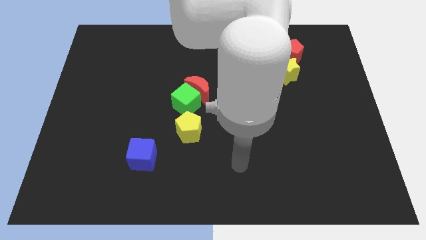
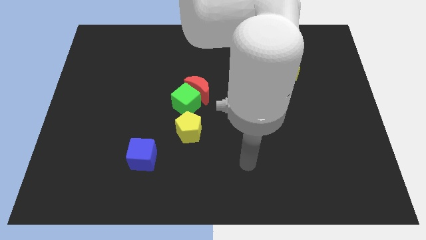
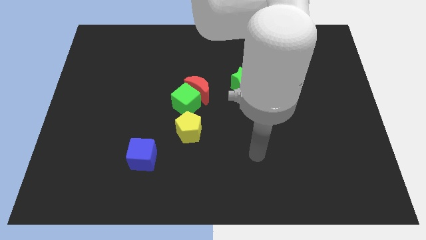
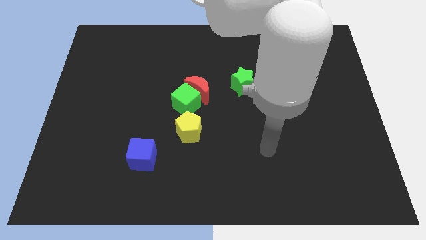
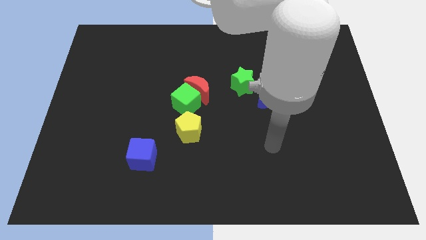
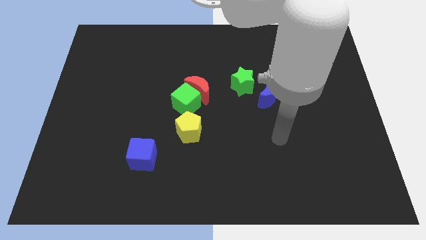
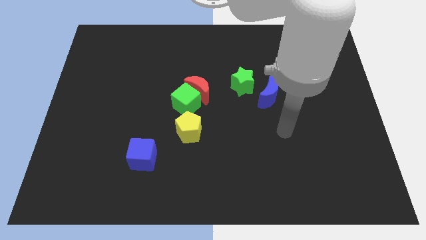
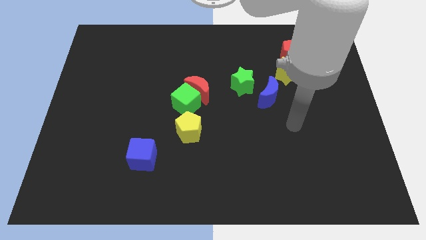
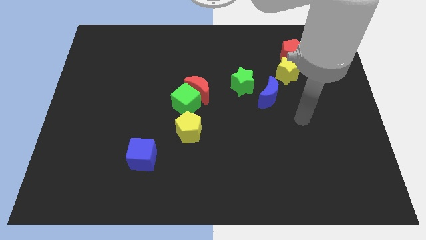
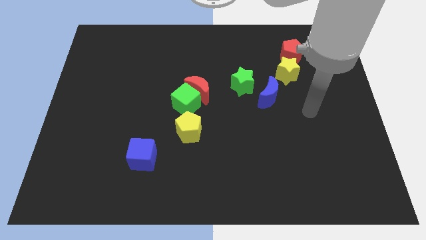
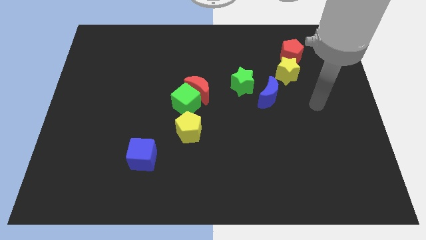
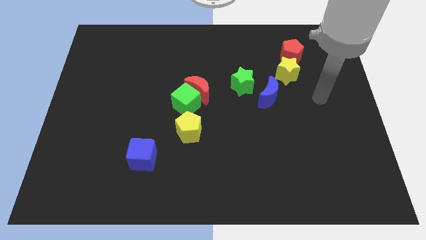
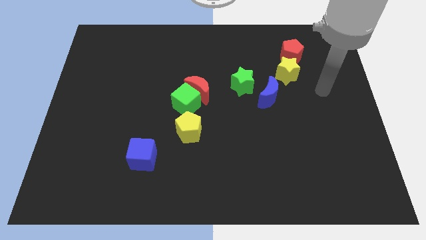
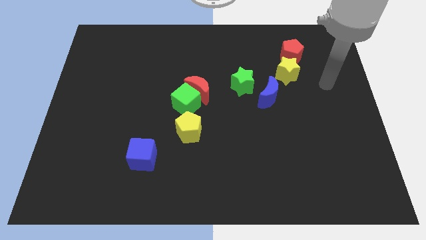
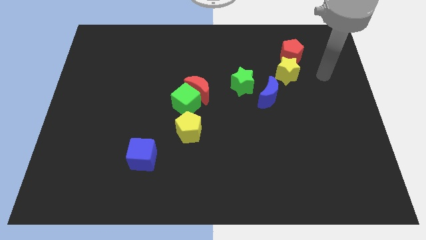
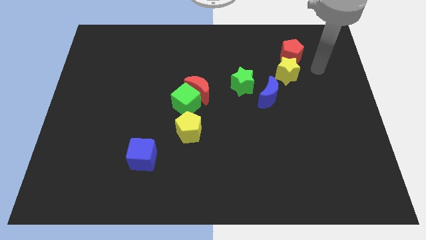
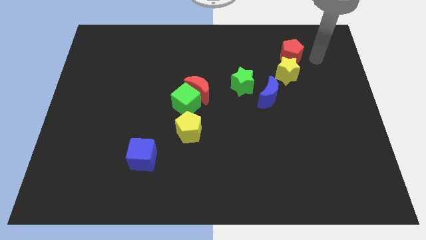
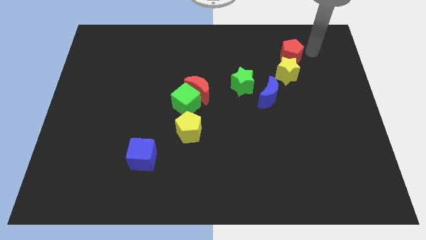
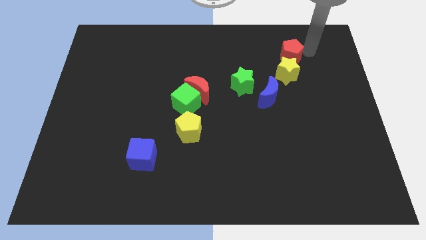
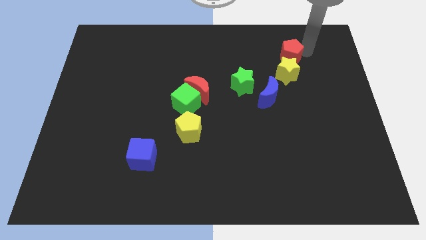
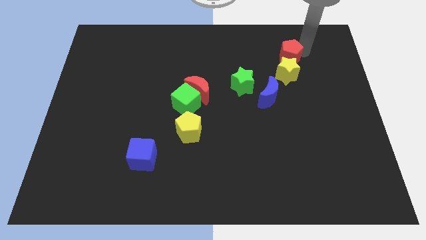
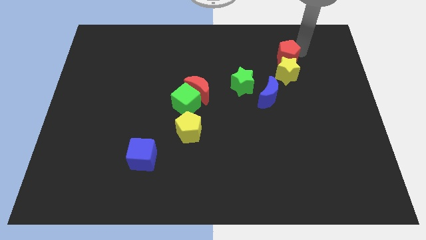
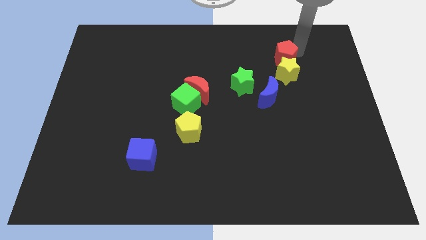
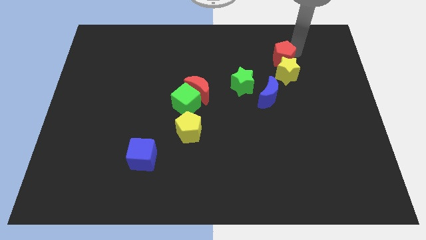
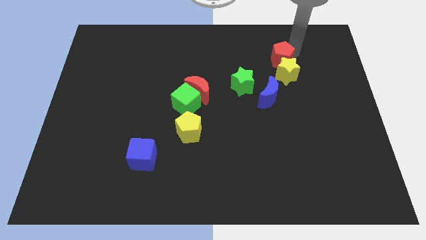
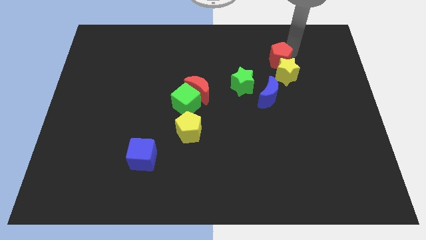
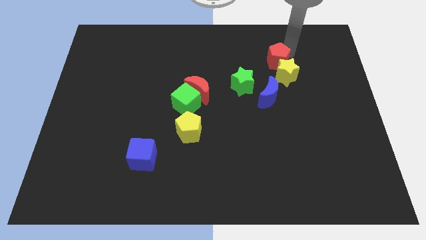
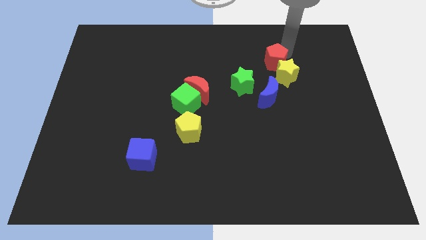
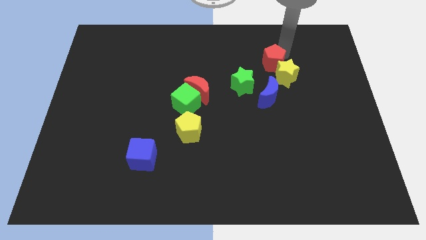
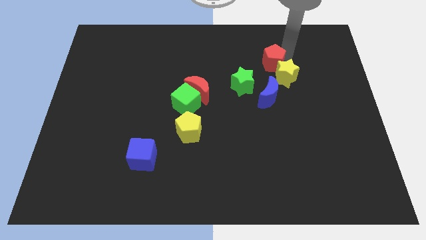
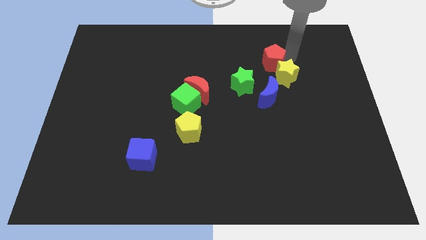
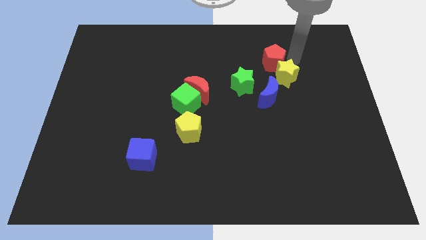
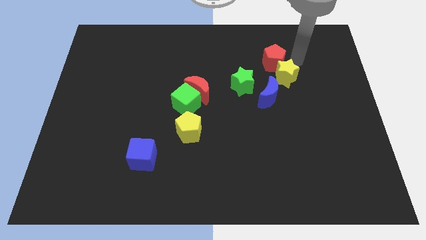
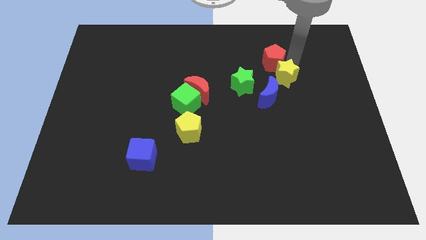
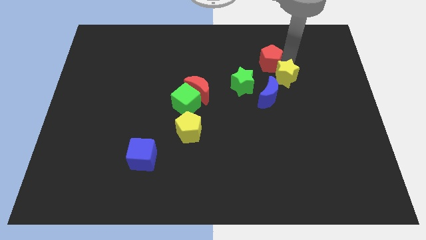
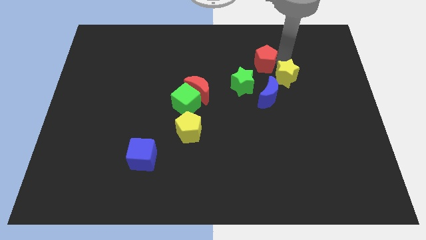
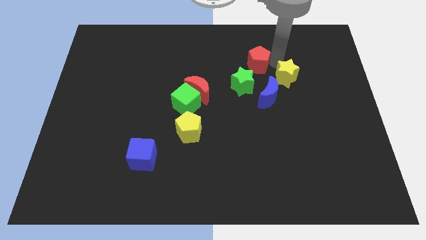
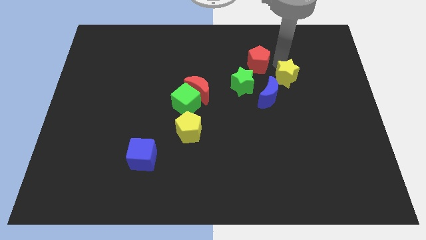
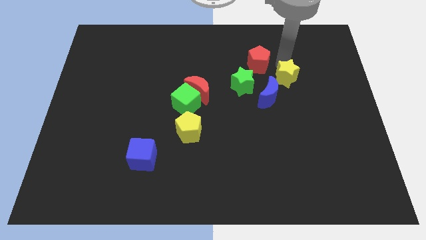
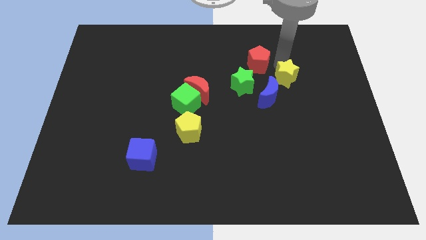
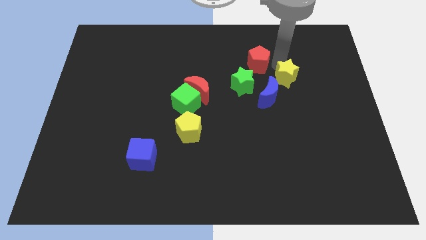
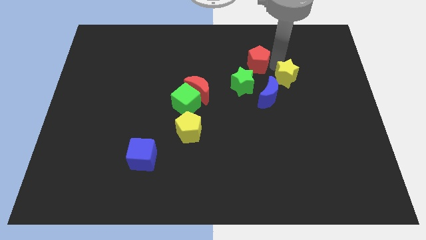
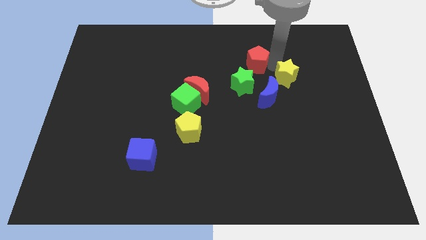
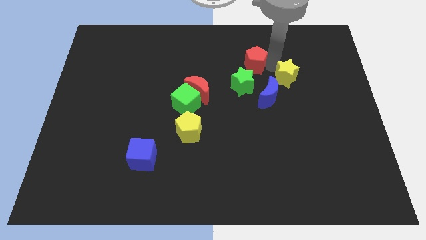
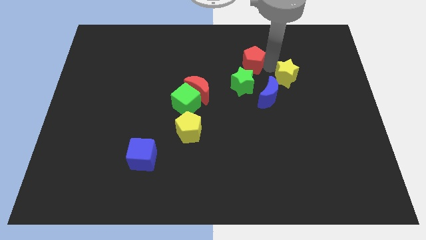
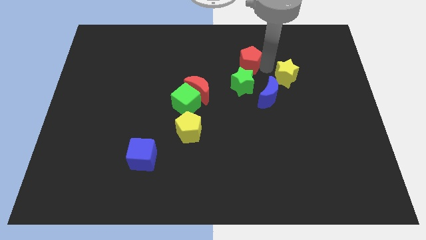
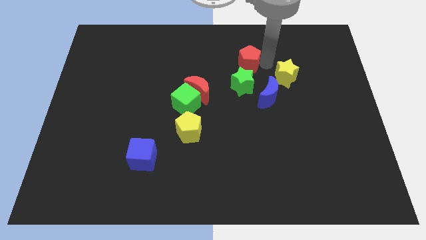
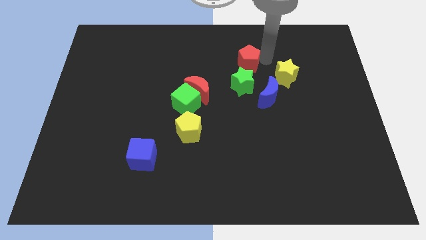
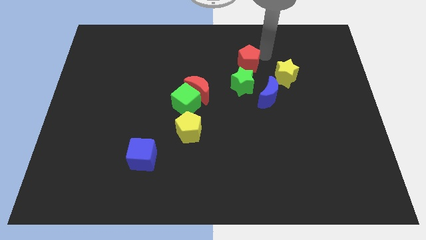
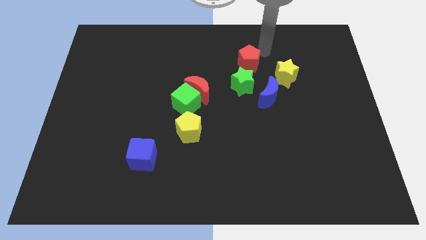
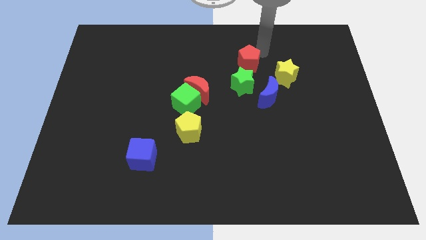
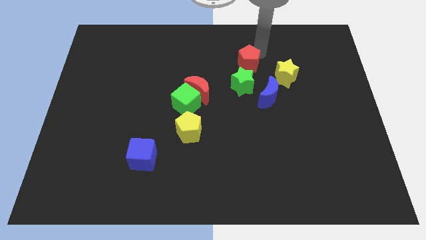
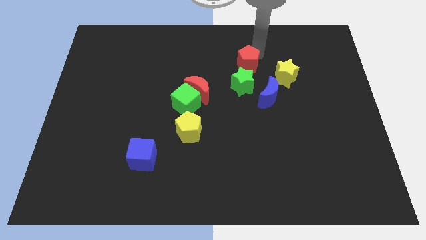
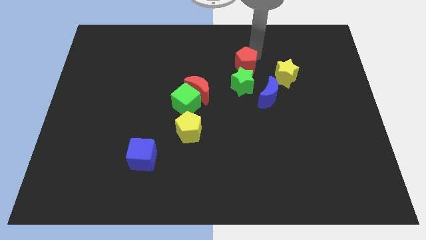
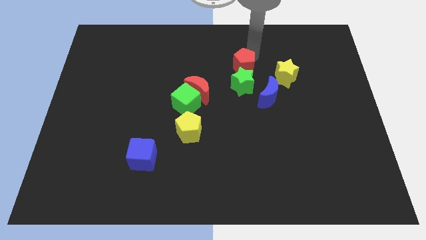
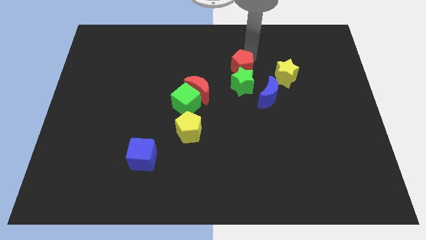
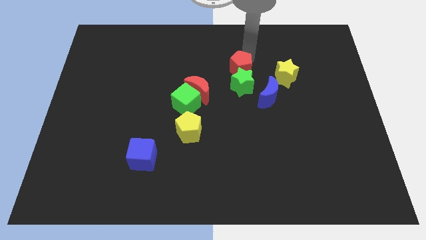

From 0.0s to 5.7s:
put the red pentagon to the center
